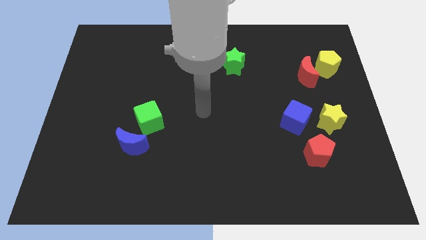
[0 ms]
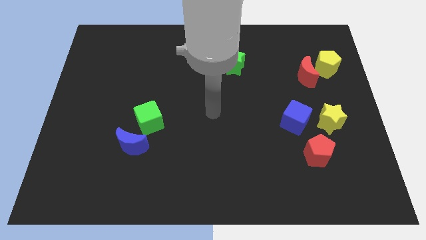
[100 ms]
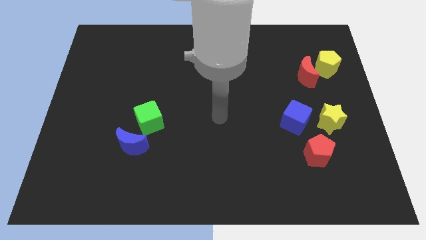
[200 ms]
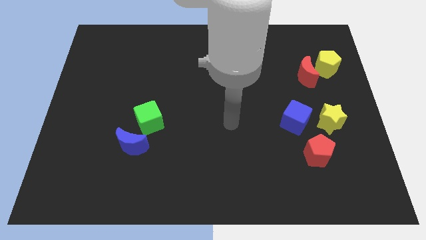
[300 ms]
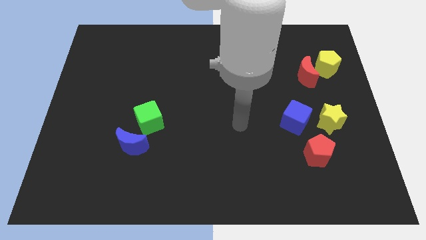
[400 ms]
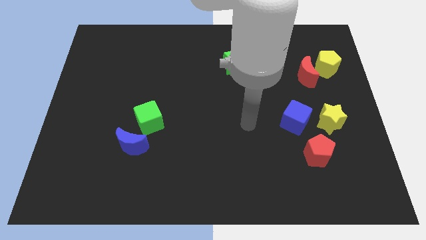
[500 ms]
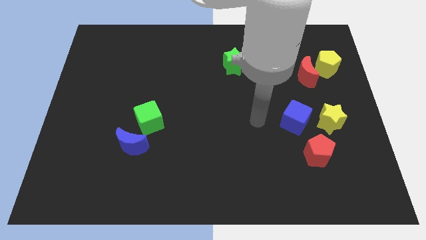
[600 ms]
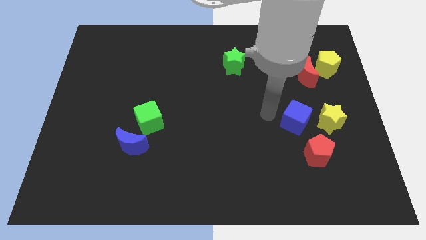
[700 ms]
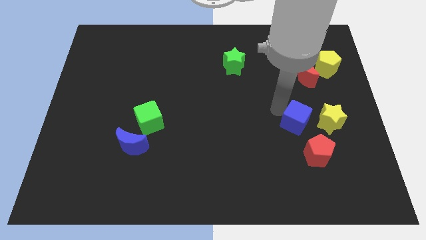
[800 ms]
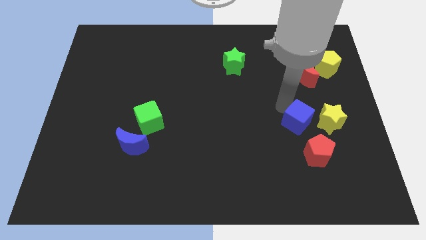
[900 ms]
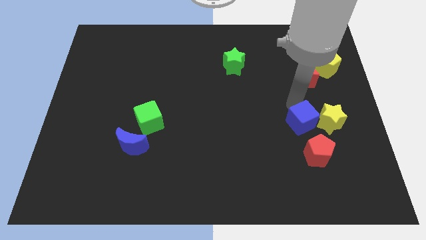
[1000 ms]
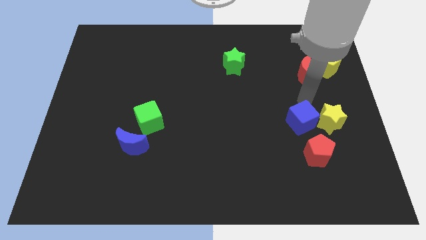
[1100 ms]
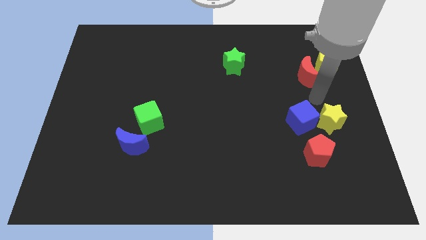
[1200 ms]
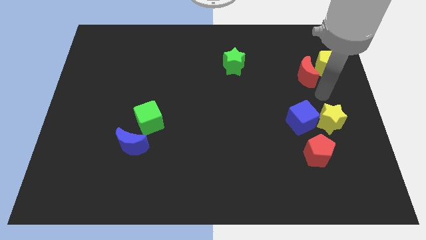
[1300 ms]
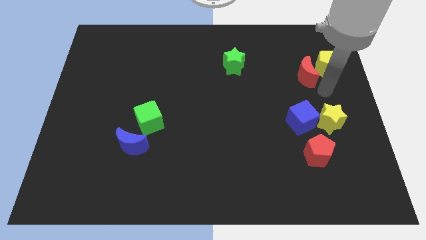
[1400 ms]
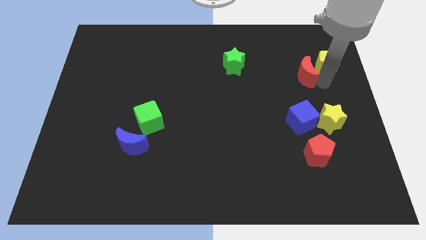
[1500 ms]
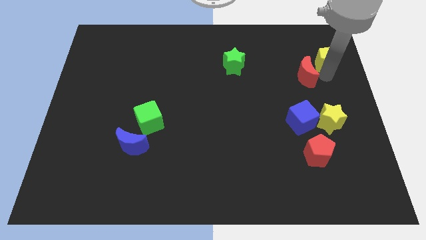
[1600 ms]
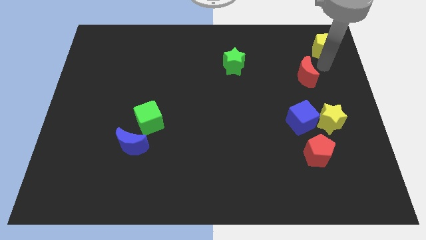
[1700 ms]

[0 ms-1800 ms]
separate the red moon from the yellow pentagon

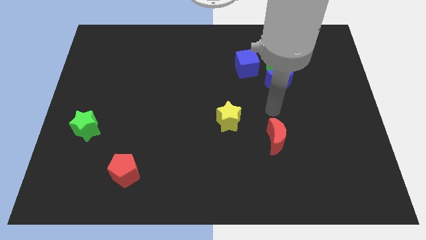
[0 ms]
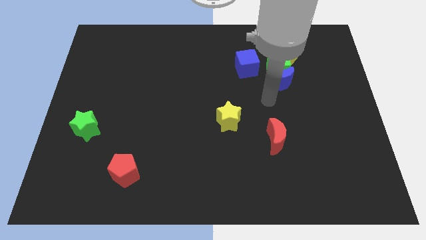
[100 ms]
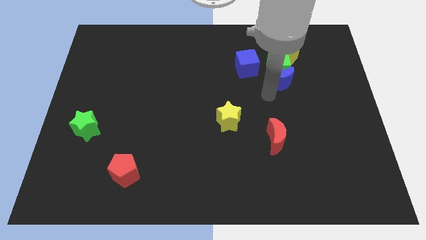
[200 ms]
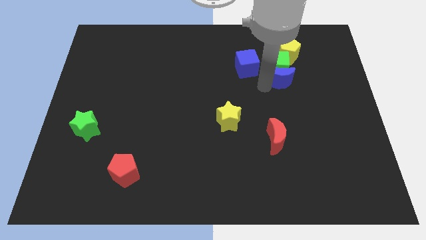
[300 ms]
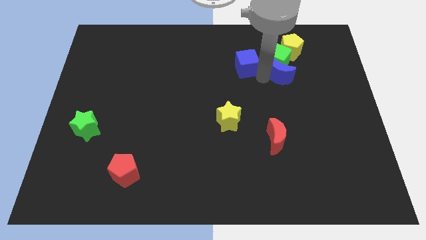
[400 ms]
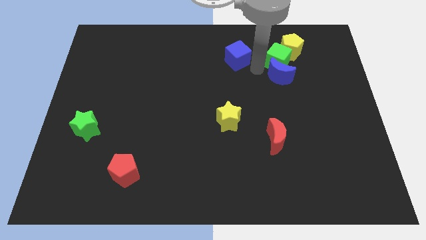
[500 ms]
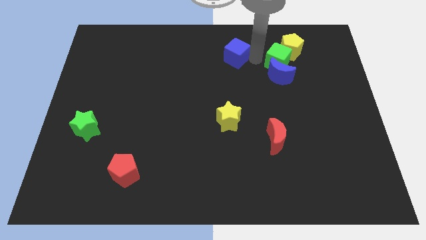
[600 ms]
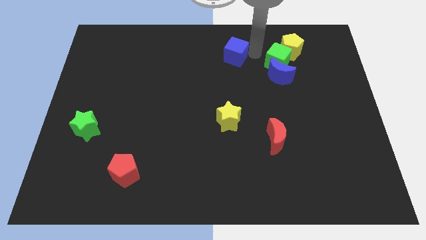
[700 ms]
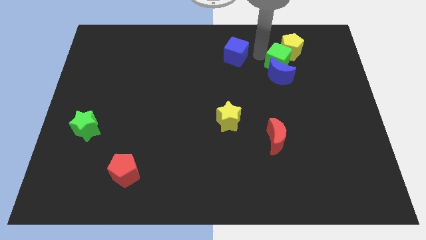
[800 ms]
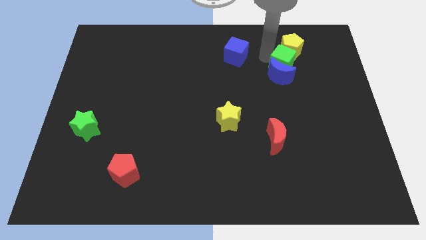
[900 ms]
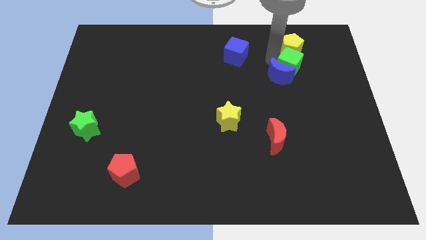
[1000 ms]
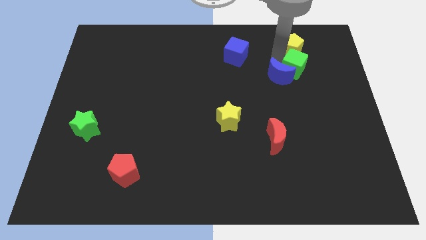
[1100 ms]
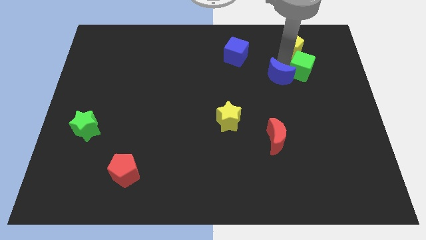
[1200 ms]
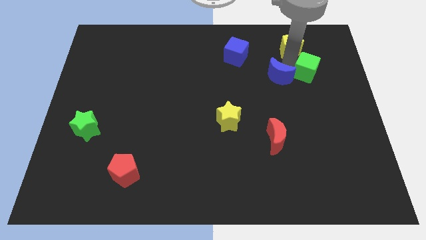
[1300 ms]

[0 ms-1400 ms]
move the green cube away from the blue moon, yellow pentagon, and blue cube

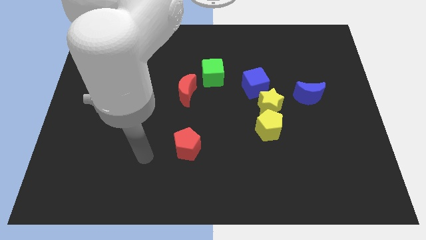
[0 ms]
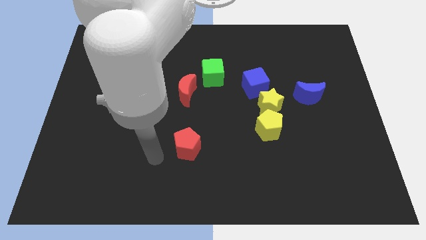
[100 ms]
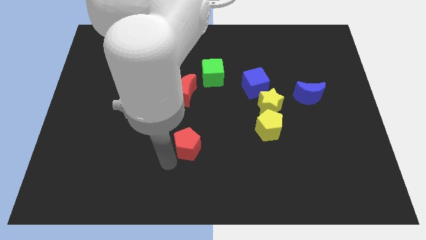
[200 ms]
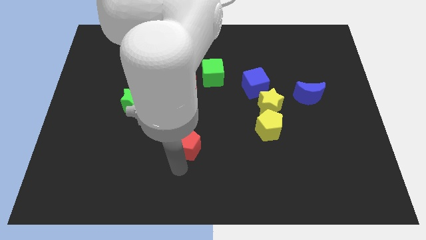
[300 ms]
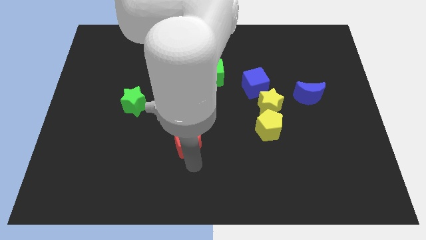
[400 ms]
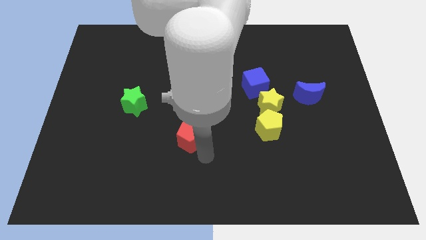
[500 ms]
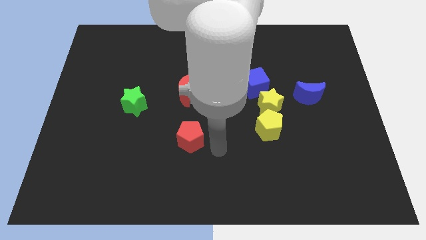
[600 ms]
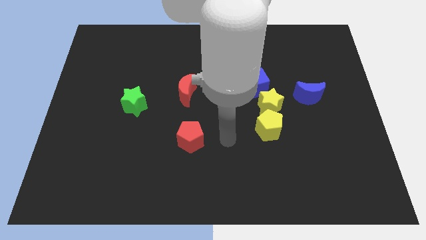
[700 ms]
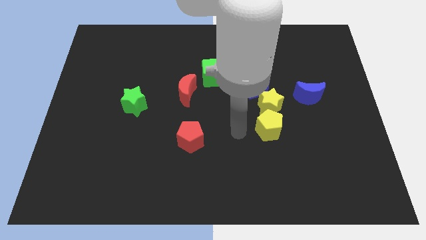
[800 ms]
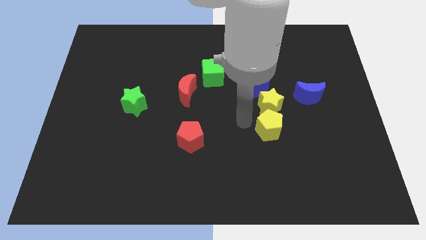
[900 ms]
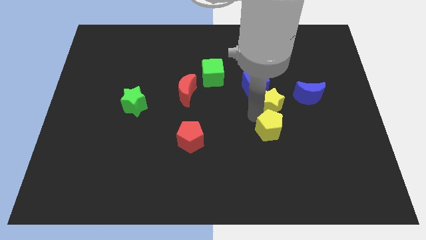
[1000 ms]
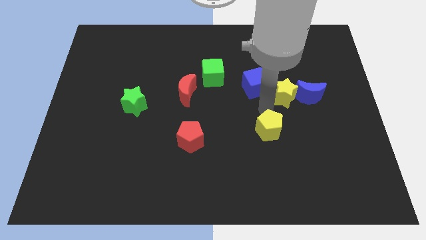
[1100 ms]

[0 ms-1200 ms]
pull the yellow pentagon apart from the yellow star

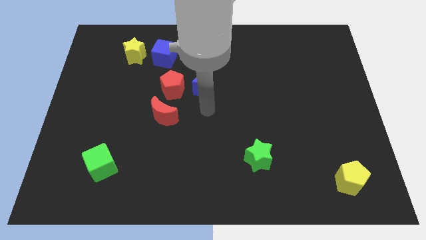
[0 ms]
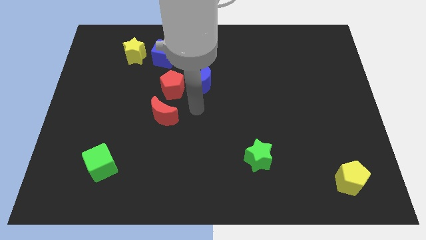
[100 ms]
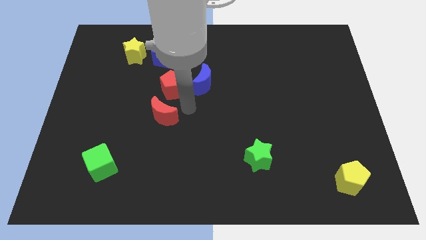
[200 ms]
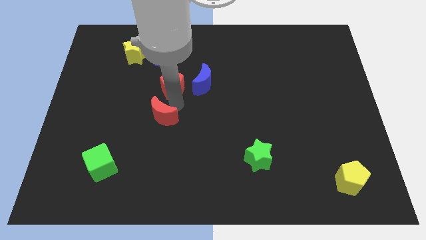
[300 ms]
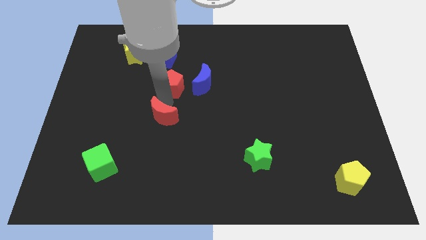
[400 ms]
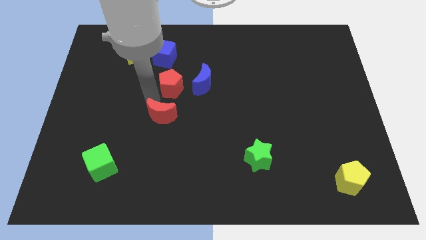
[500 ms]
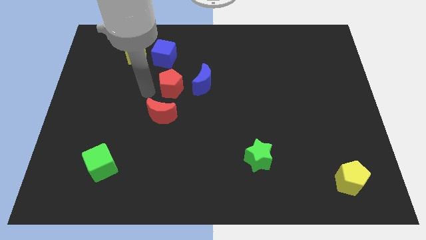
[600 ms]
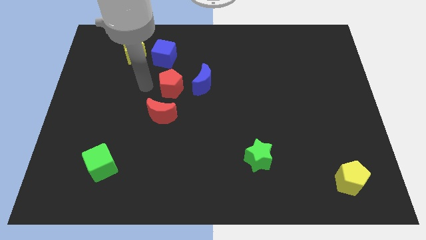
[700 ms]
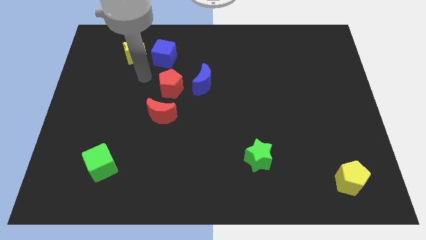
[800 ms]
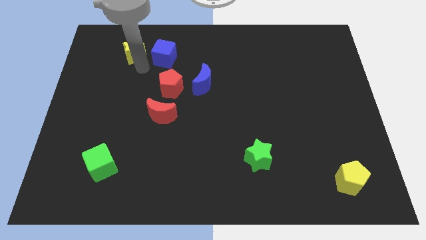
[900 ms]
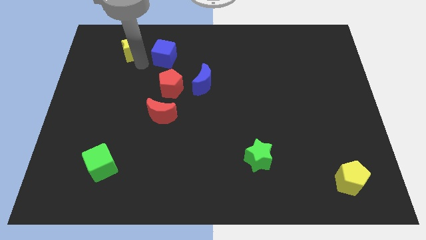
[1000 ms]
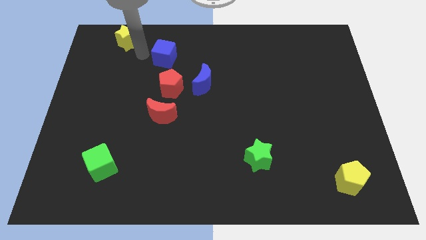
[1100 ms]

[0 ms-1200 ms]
separate the blue cube from the yellow star

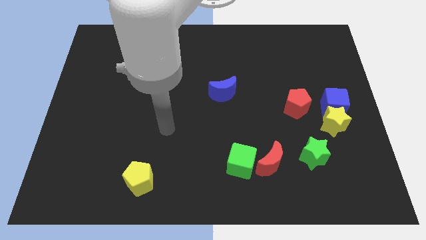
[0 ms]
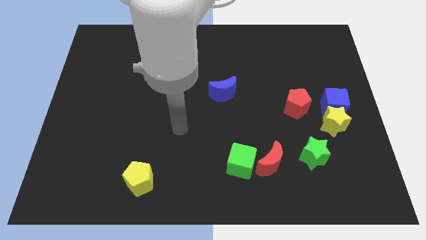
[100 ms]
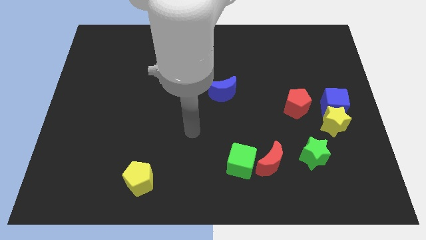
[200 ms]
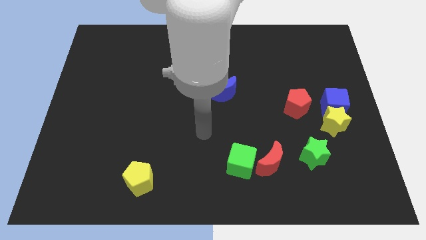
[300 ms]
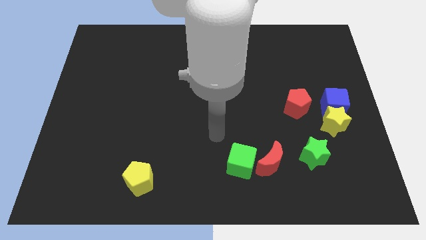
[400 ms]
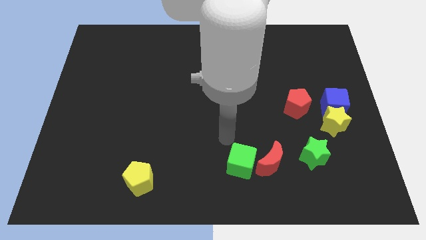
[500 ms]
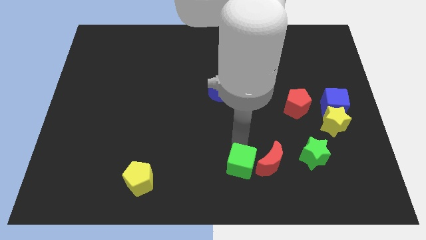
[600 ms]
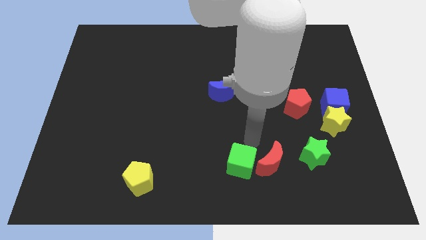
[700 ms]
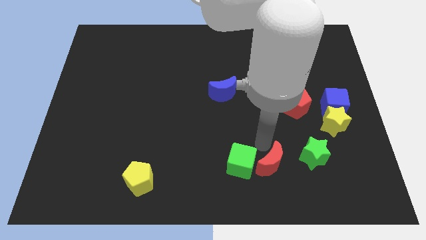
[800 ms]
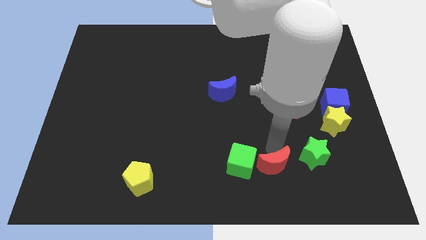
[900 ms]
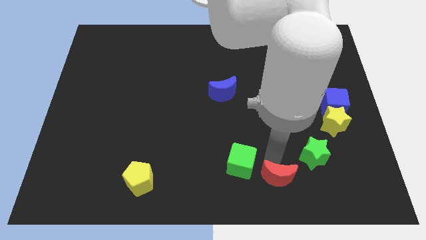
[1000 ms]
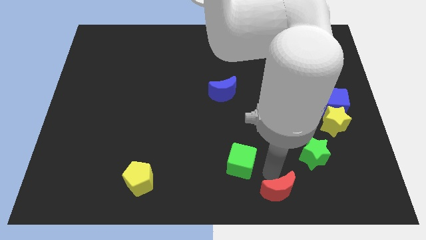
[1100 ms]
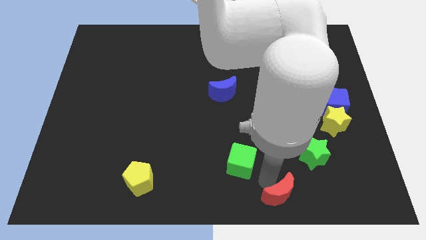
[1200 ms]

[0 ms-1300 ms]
move the green cube away from the red moon

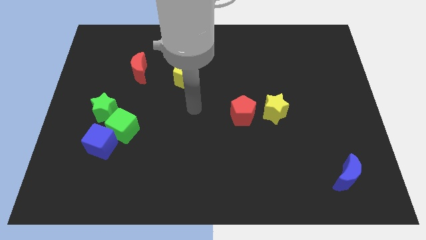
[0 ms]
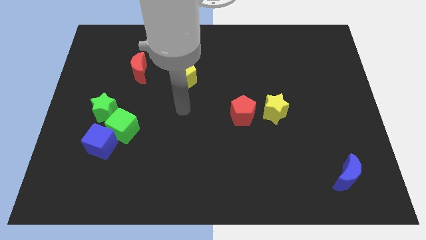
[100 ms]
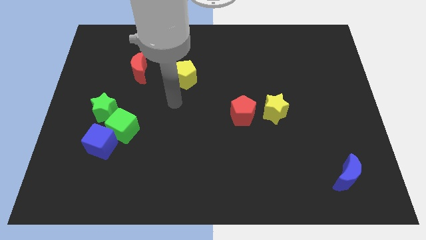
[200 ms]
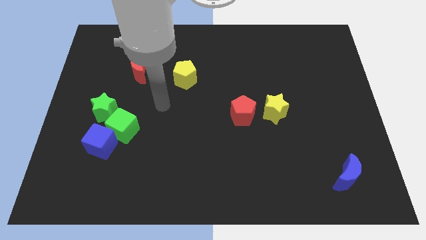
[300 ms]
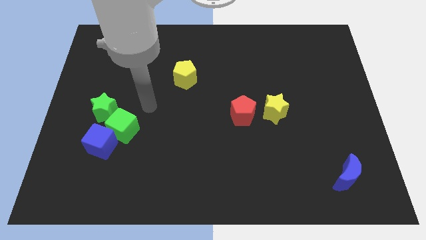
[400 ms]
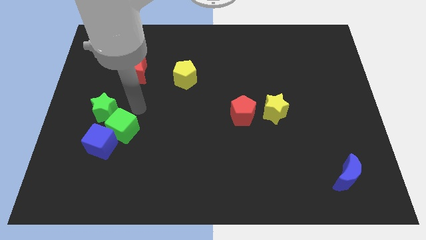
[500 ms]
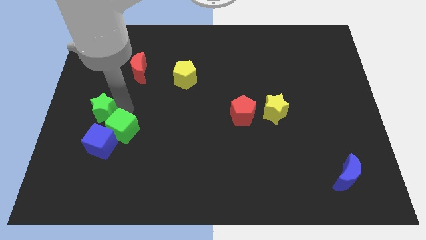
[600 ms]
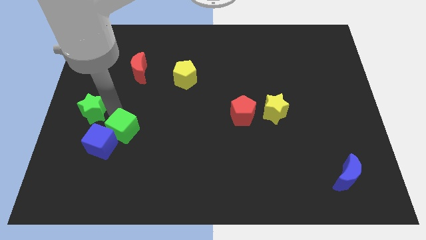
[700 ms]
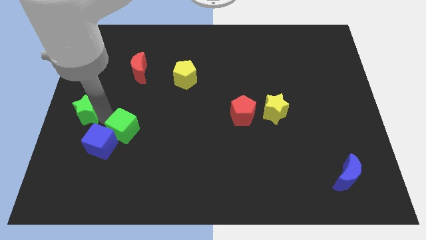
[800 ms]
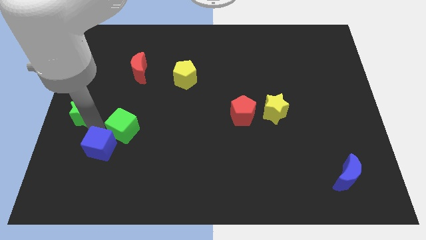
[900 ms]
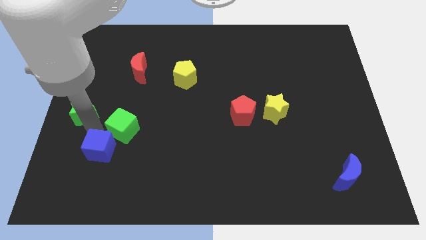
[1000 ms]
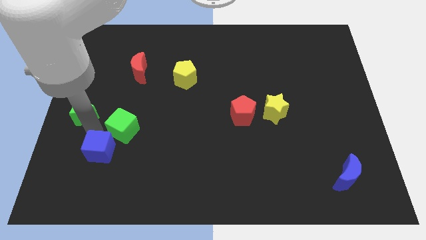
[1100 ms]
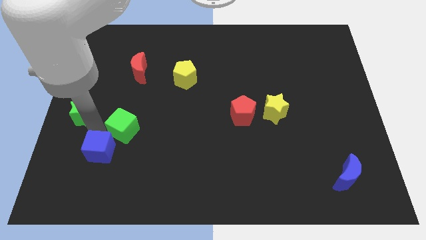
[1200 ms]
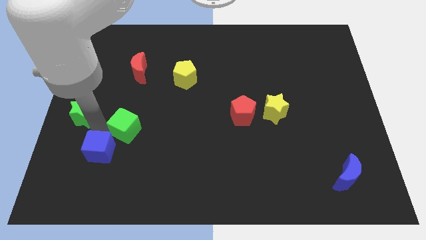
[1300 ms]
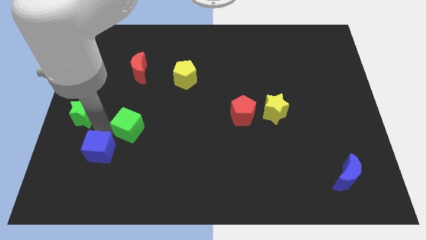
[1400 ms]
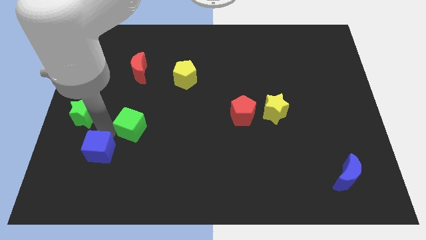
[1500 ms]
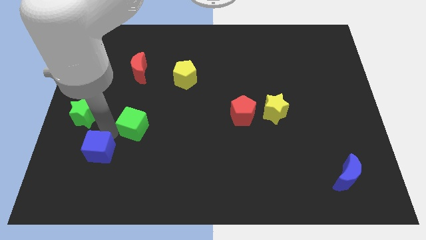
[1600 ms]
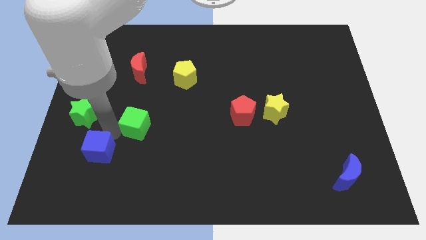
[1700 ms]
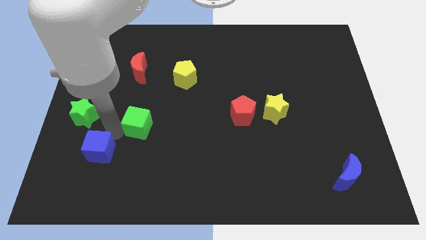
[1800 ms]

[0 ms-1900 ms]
move the green cube away from the blue cube and green star
